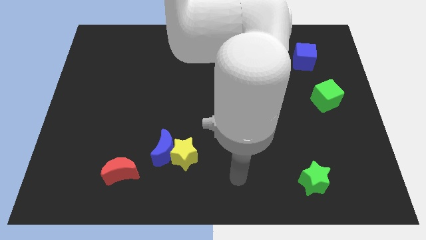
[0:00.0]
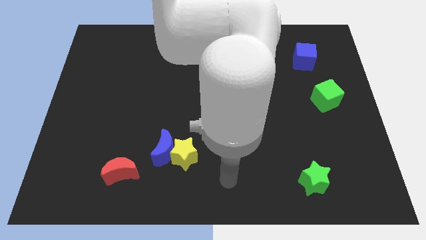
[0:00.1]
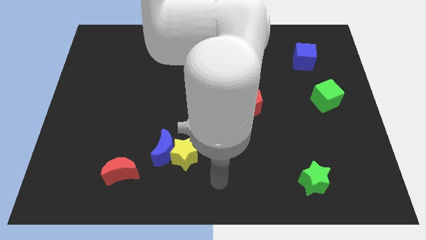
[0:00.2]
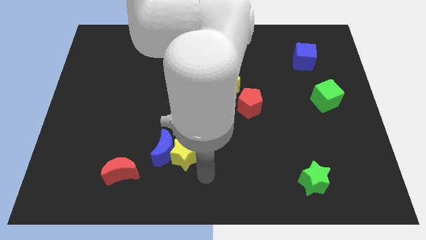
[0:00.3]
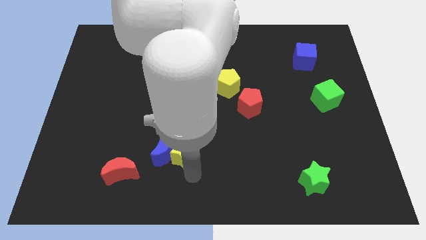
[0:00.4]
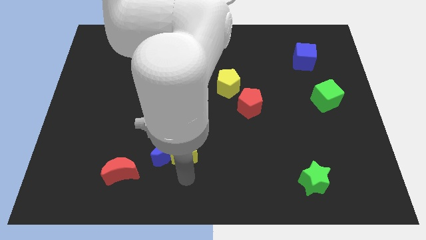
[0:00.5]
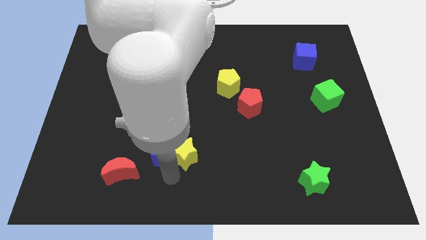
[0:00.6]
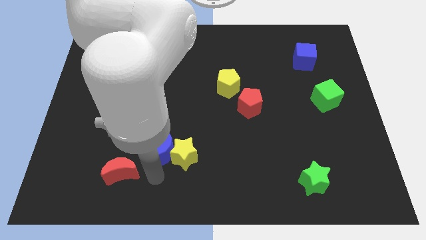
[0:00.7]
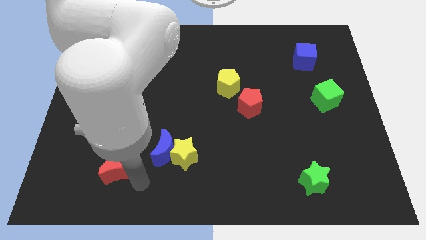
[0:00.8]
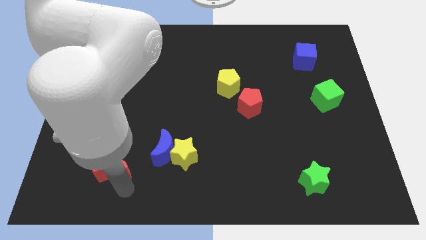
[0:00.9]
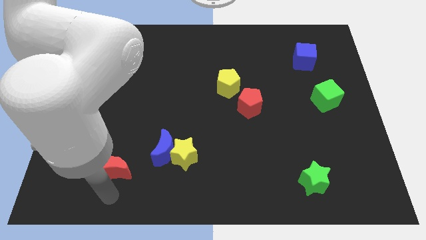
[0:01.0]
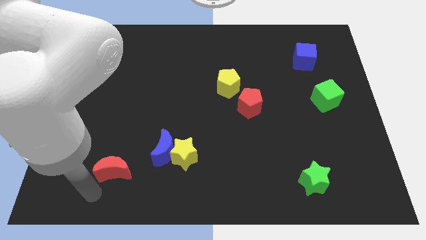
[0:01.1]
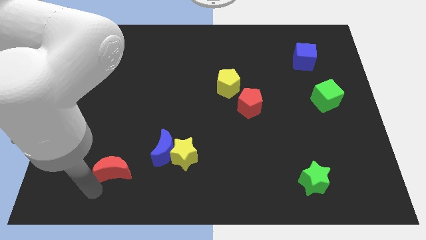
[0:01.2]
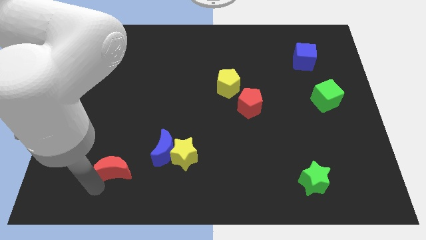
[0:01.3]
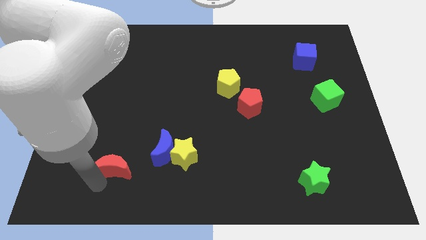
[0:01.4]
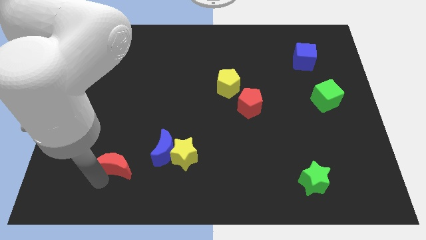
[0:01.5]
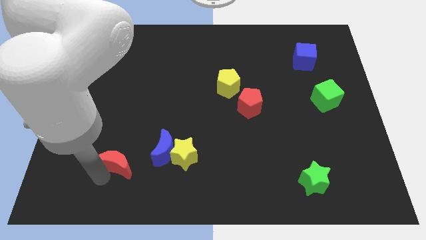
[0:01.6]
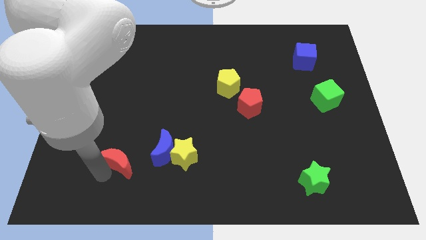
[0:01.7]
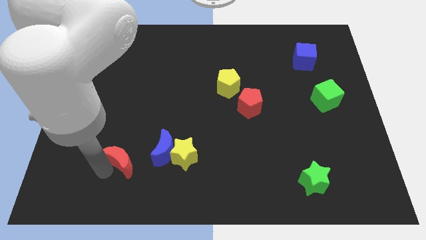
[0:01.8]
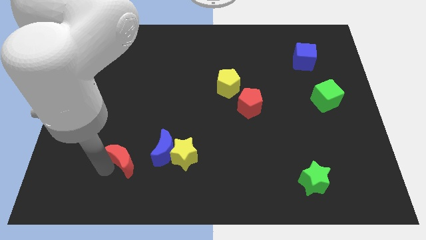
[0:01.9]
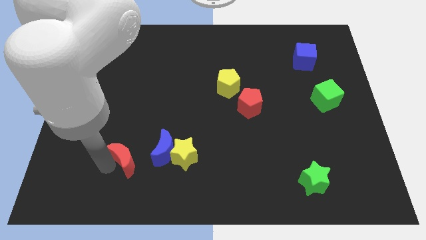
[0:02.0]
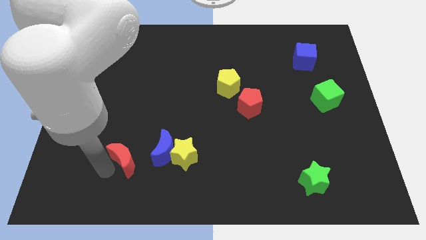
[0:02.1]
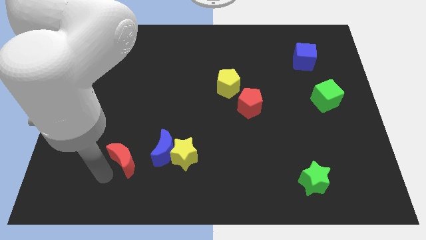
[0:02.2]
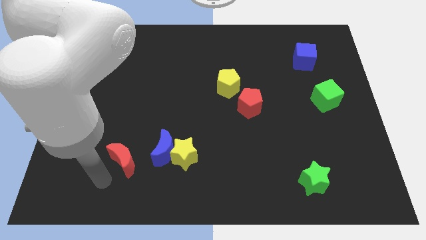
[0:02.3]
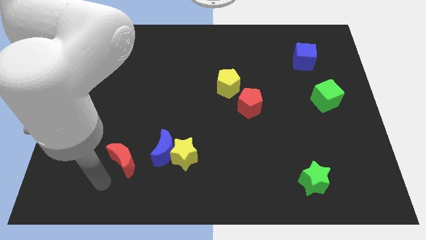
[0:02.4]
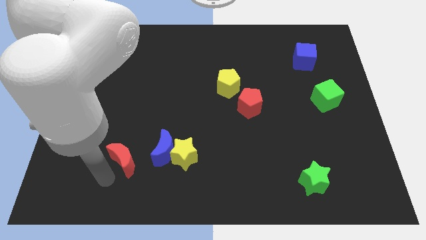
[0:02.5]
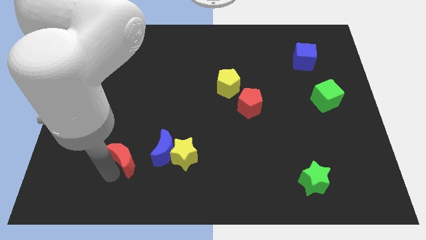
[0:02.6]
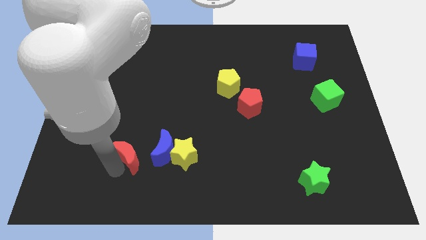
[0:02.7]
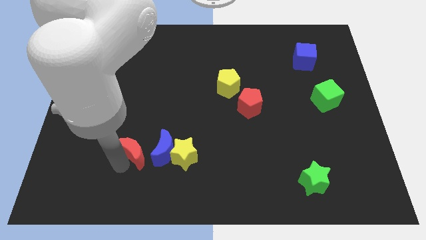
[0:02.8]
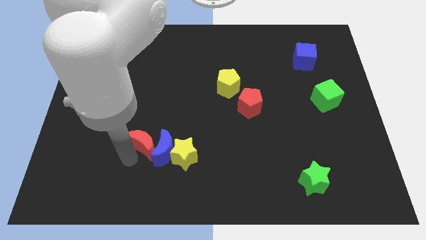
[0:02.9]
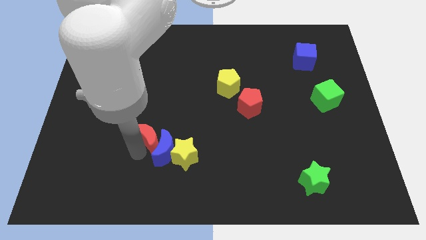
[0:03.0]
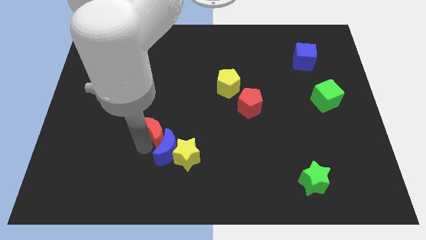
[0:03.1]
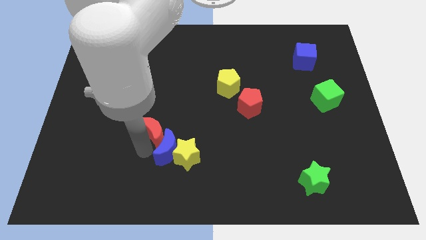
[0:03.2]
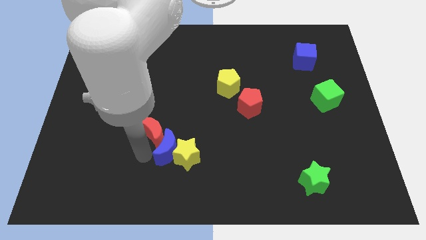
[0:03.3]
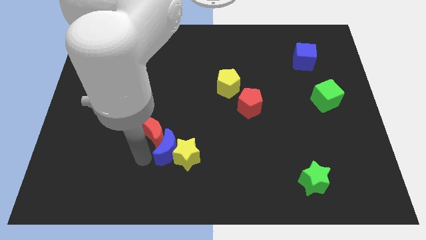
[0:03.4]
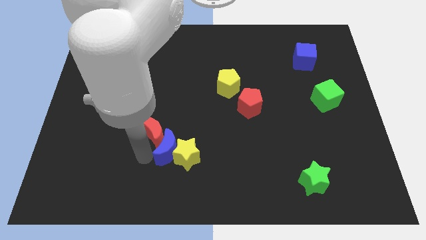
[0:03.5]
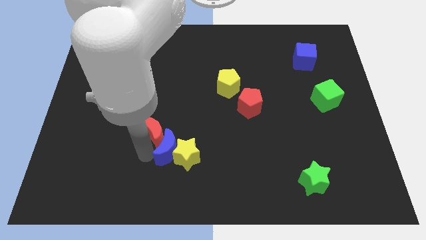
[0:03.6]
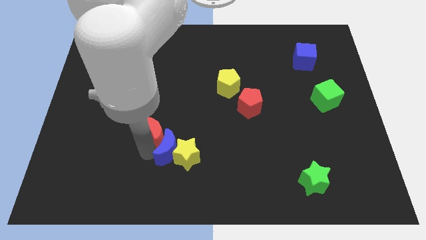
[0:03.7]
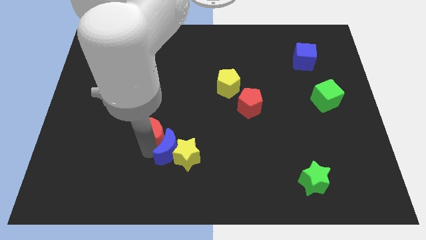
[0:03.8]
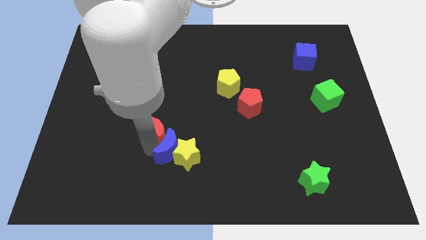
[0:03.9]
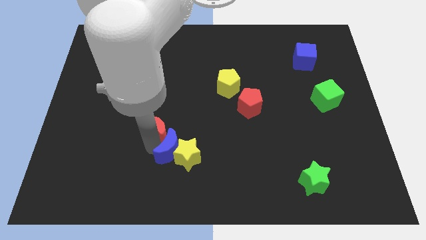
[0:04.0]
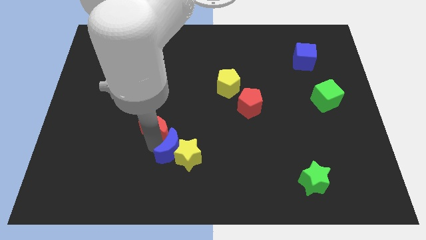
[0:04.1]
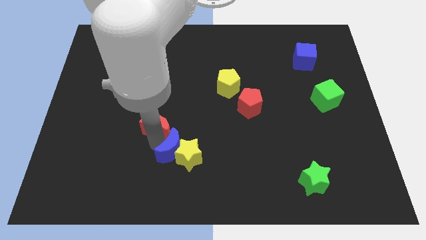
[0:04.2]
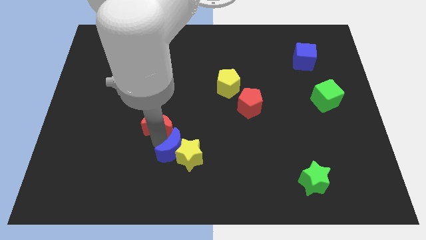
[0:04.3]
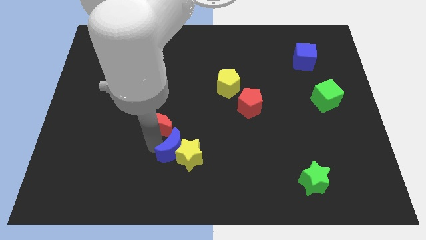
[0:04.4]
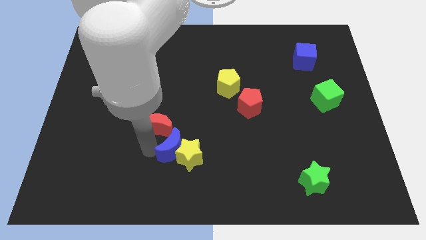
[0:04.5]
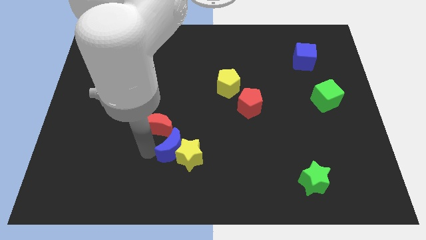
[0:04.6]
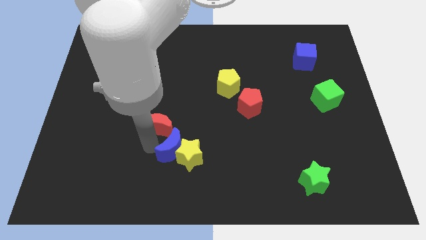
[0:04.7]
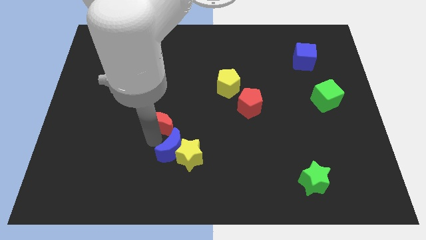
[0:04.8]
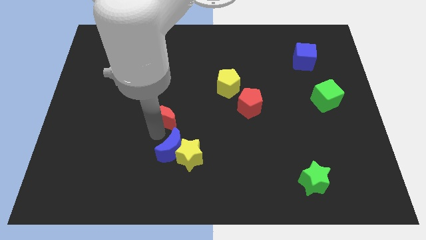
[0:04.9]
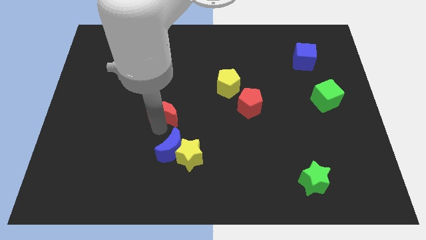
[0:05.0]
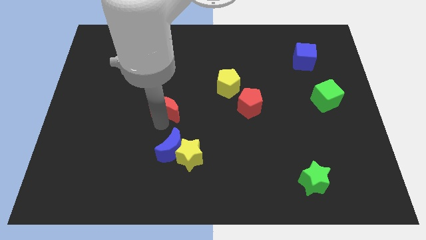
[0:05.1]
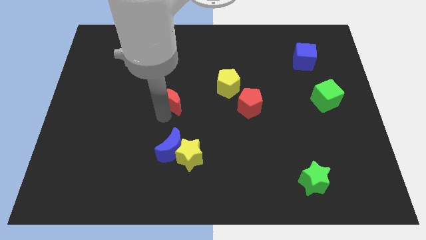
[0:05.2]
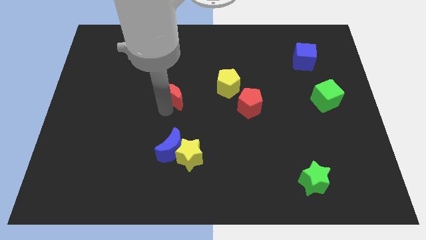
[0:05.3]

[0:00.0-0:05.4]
slide the red moon to the left of the yellow pentagon

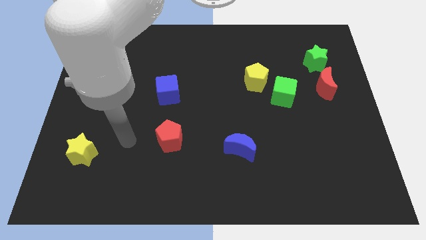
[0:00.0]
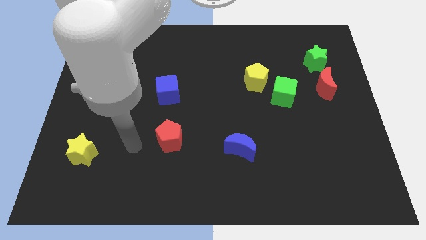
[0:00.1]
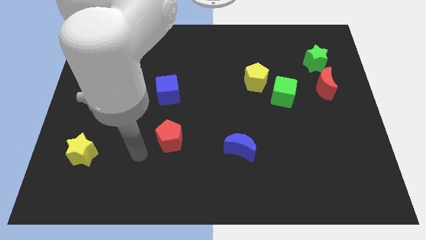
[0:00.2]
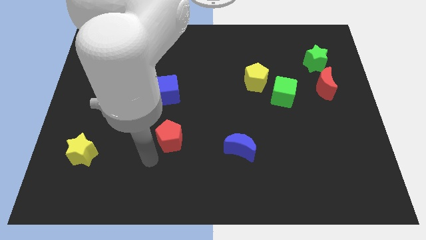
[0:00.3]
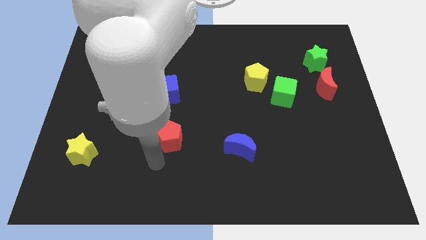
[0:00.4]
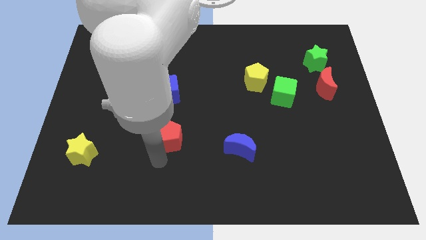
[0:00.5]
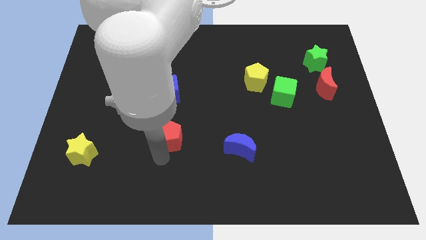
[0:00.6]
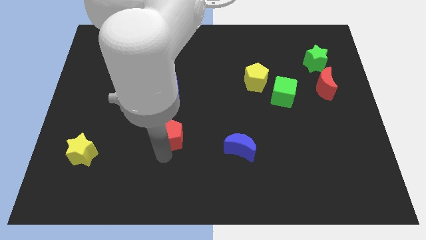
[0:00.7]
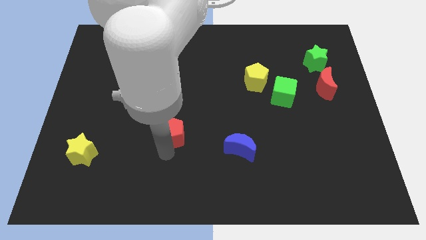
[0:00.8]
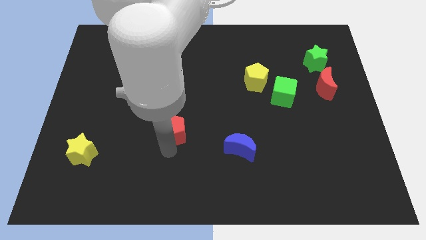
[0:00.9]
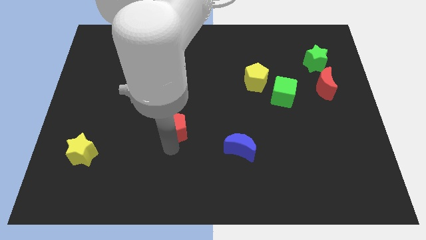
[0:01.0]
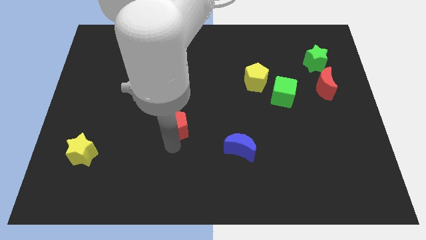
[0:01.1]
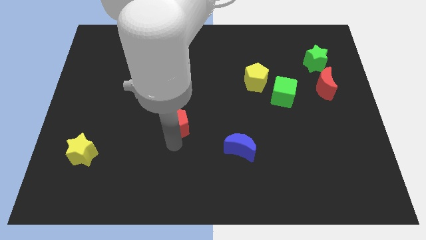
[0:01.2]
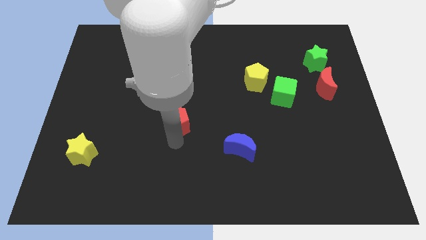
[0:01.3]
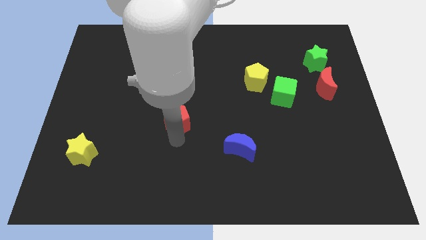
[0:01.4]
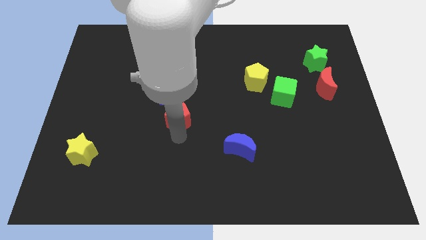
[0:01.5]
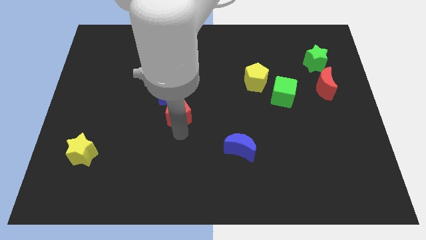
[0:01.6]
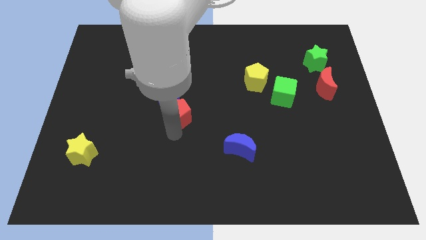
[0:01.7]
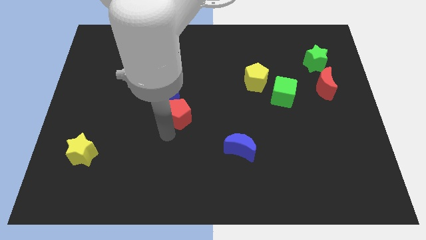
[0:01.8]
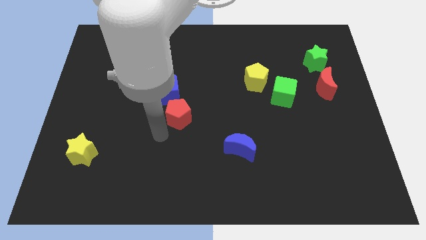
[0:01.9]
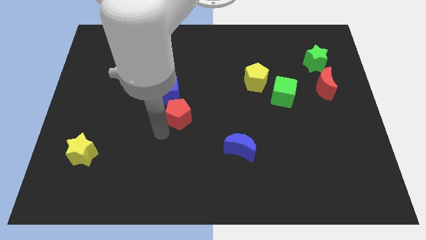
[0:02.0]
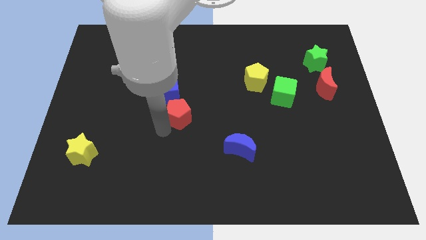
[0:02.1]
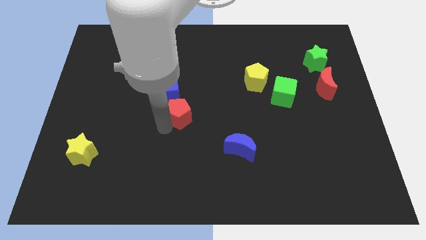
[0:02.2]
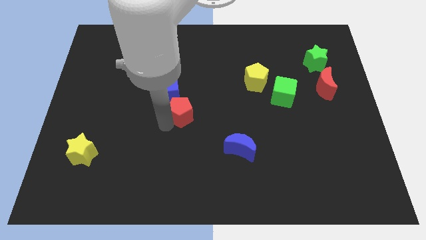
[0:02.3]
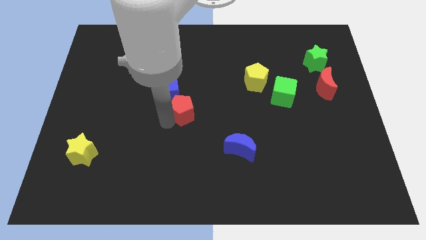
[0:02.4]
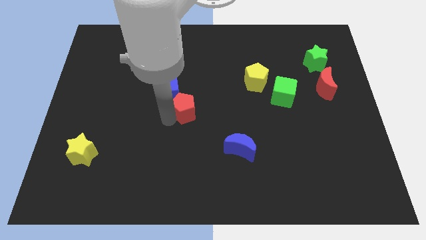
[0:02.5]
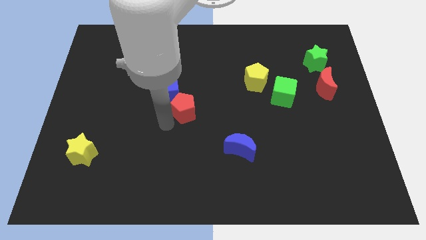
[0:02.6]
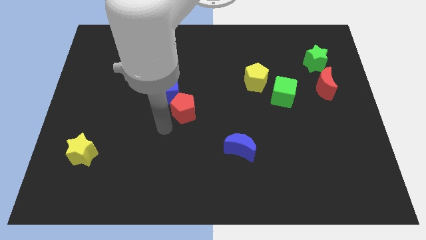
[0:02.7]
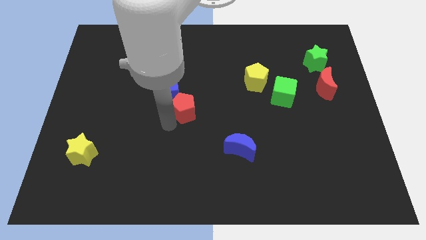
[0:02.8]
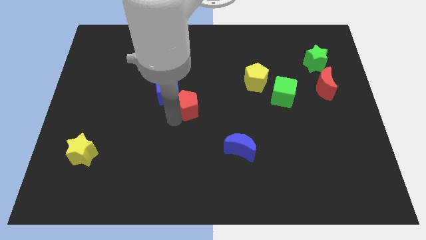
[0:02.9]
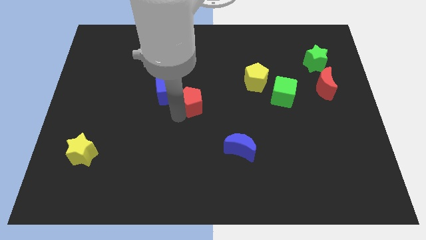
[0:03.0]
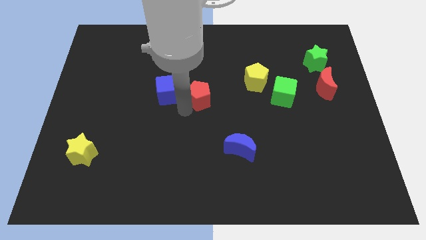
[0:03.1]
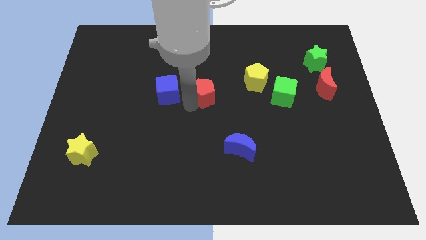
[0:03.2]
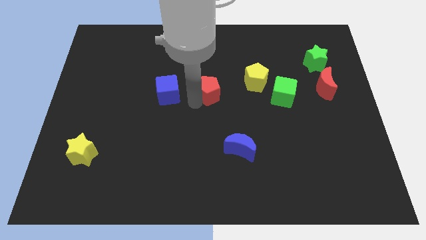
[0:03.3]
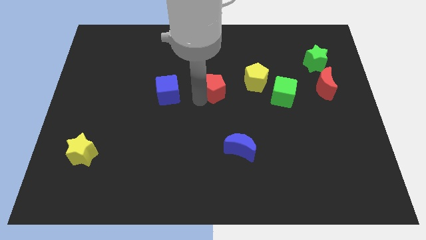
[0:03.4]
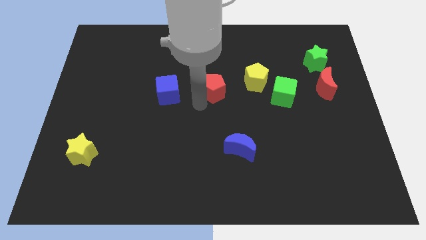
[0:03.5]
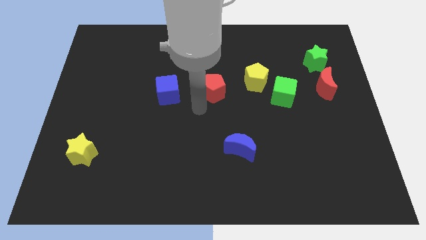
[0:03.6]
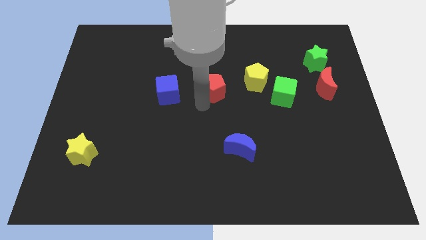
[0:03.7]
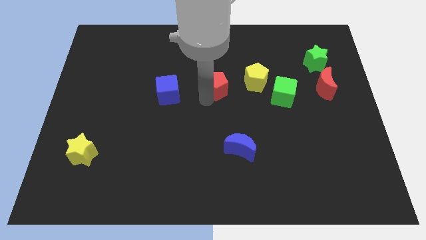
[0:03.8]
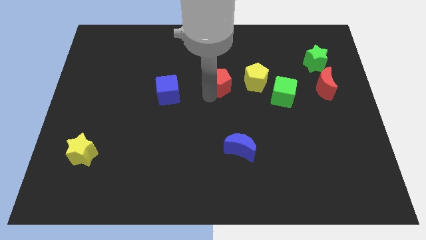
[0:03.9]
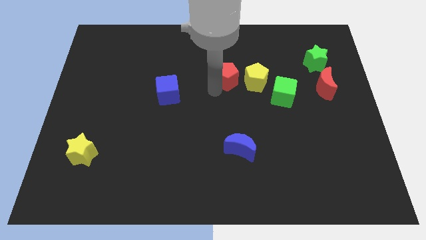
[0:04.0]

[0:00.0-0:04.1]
move the red pentagon to the top left of the yellow pentagon
